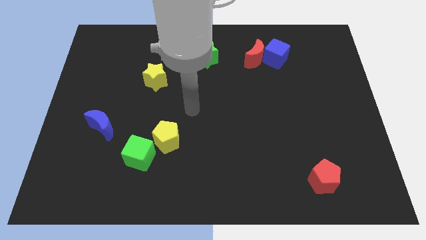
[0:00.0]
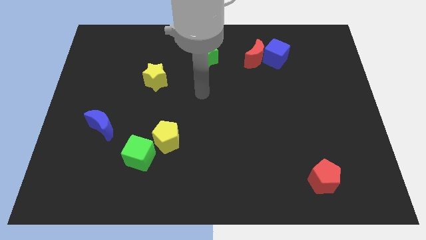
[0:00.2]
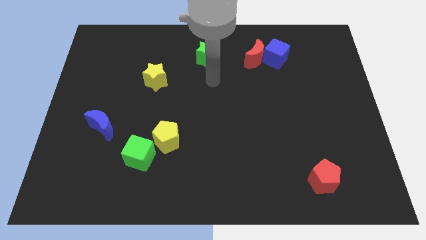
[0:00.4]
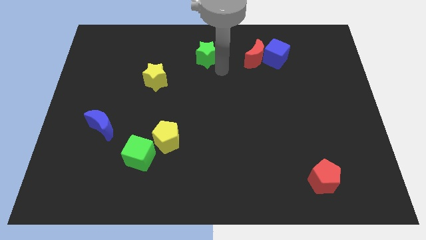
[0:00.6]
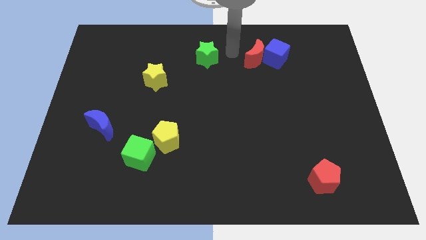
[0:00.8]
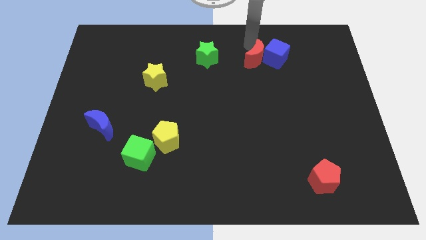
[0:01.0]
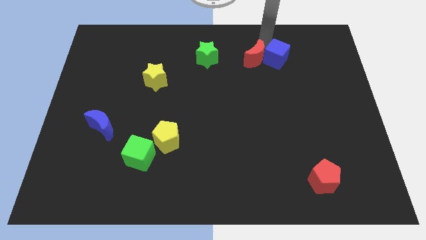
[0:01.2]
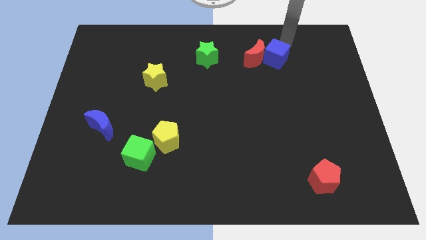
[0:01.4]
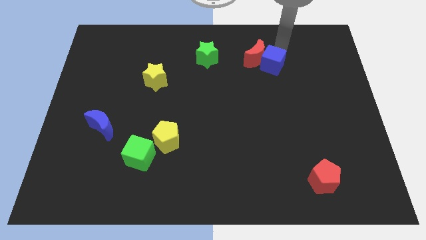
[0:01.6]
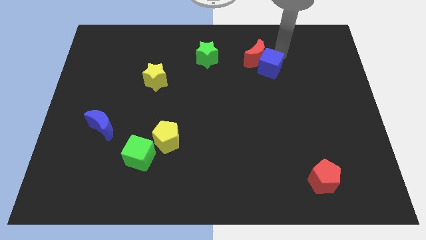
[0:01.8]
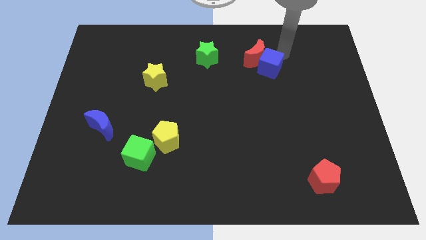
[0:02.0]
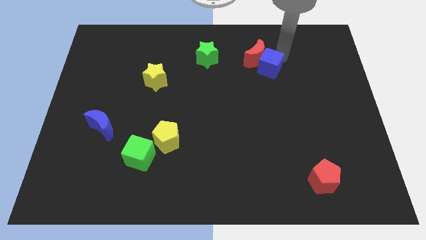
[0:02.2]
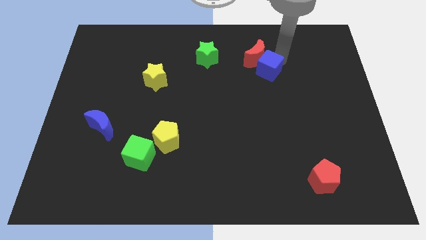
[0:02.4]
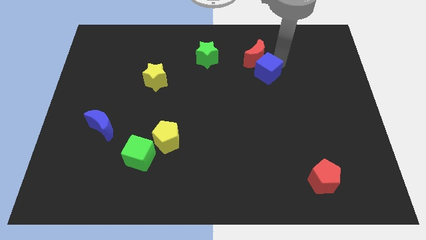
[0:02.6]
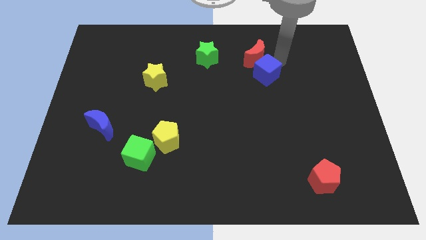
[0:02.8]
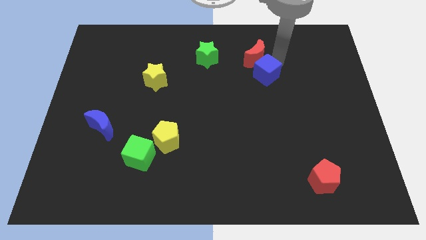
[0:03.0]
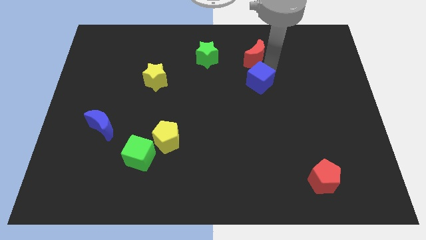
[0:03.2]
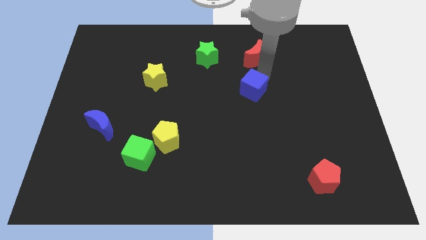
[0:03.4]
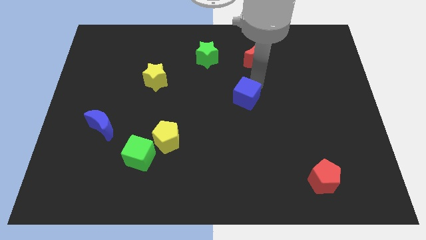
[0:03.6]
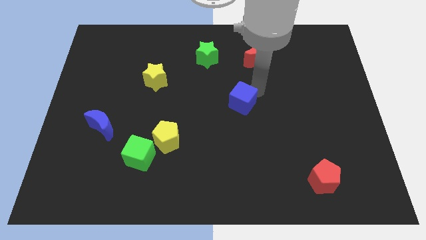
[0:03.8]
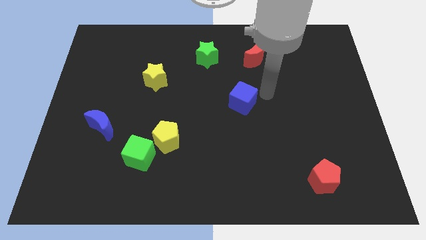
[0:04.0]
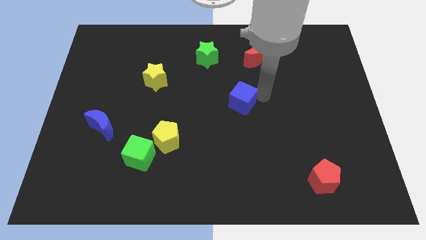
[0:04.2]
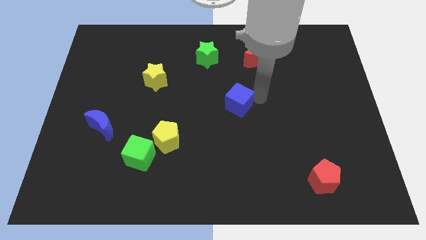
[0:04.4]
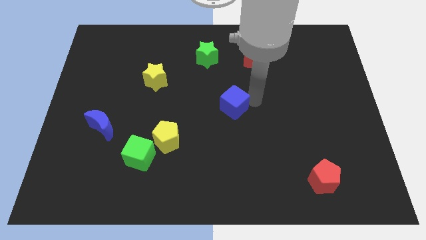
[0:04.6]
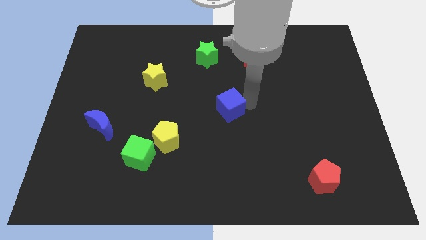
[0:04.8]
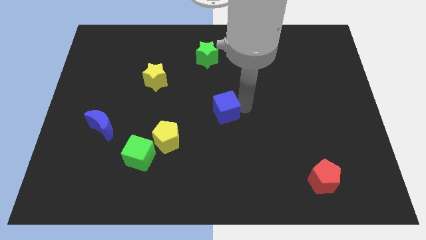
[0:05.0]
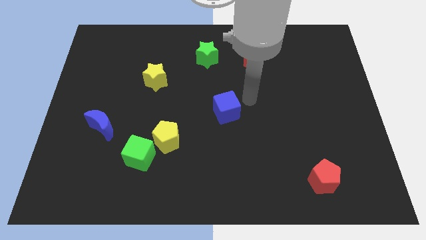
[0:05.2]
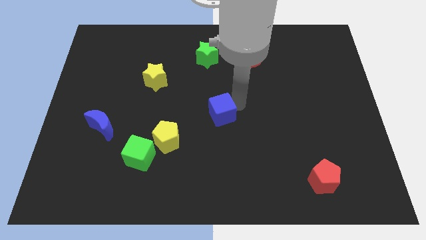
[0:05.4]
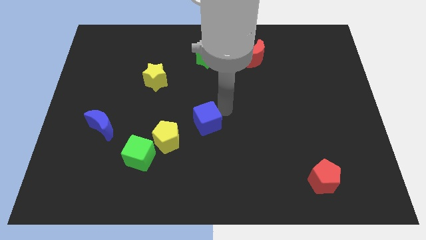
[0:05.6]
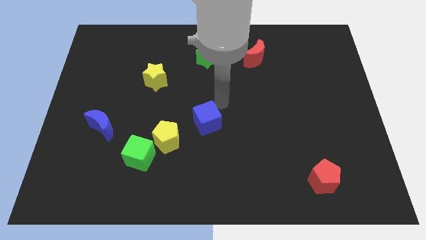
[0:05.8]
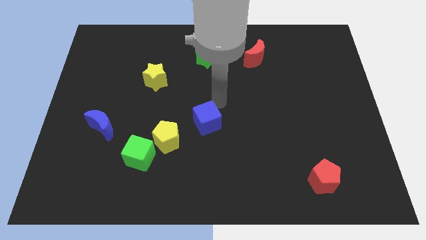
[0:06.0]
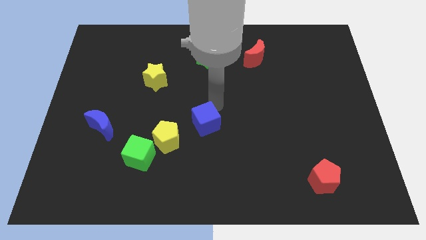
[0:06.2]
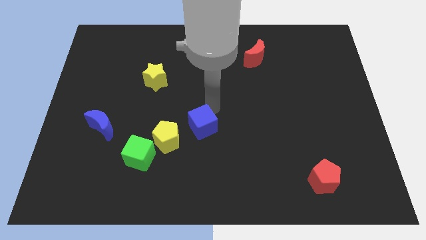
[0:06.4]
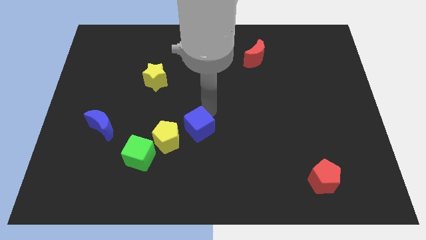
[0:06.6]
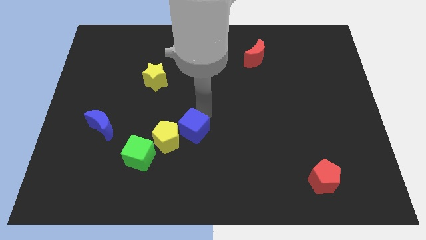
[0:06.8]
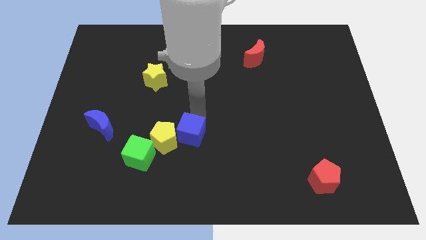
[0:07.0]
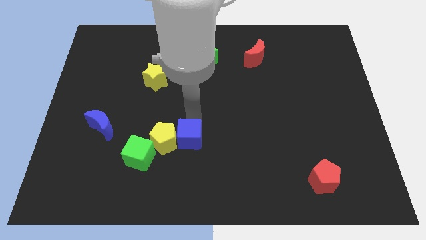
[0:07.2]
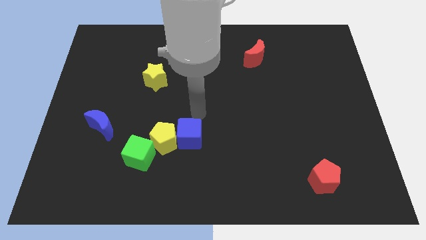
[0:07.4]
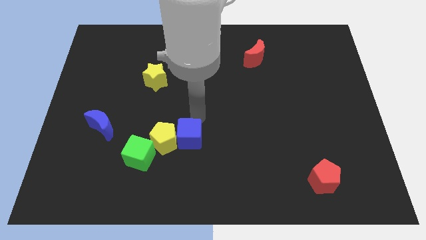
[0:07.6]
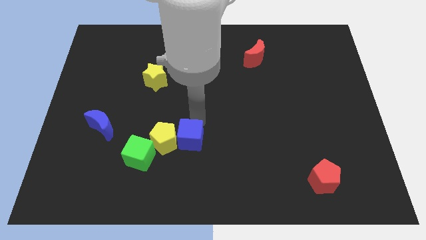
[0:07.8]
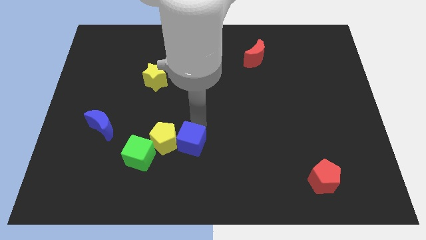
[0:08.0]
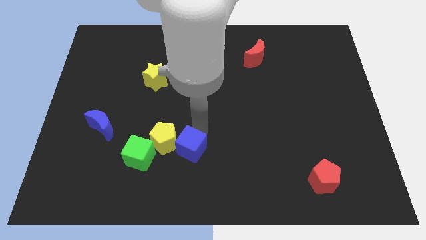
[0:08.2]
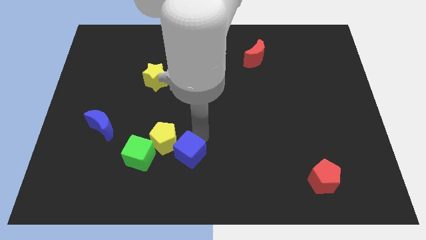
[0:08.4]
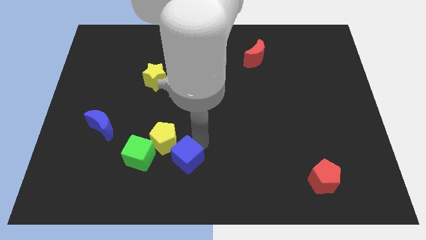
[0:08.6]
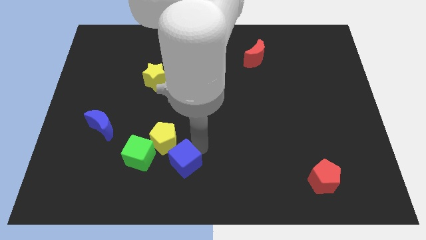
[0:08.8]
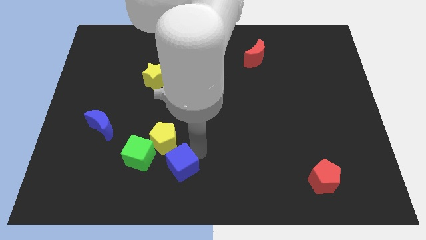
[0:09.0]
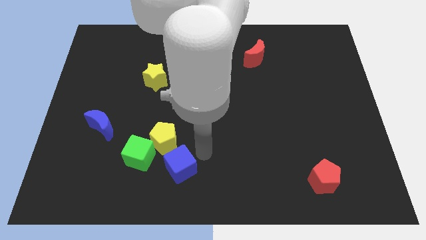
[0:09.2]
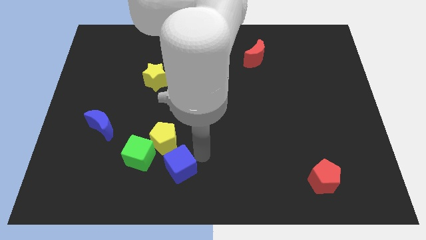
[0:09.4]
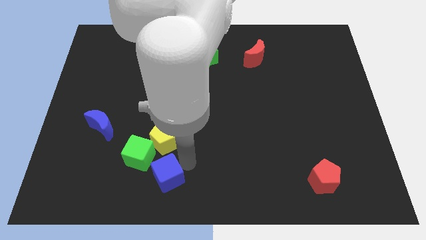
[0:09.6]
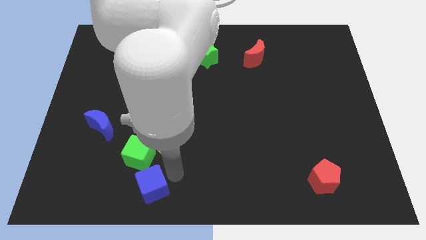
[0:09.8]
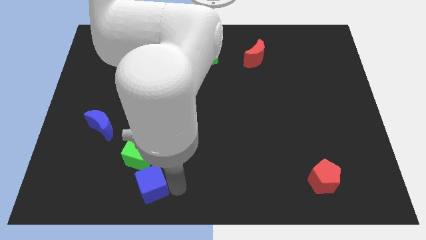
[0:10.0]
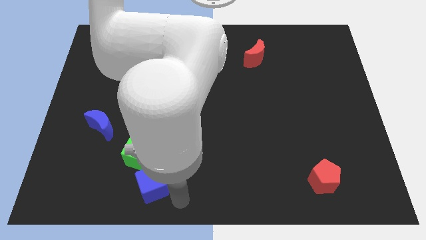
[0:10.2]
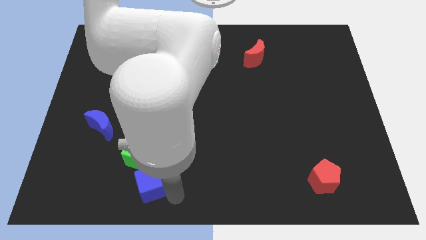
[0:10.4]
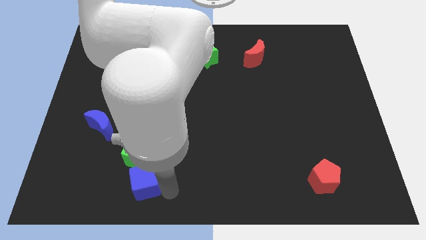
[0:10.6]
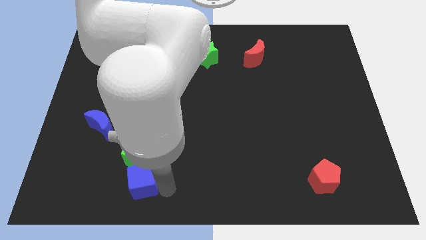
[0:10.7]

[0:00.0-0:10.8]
move the blue cube to the bottom left side of the yellow pentagon

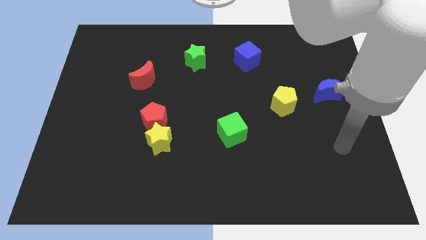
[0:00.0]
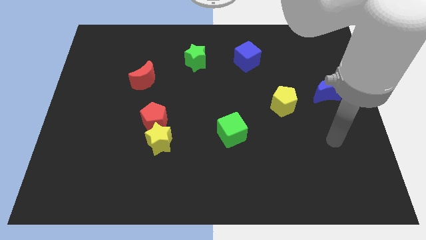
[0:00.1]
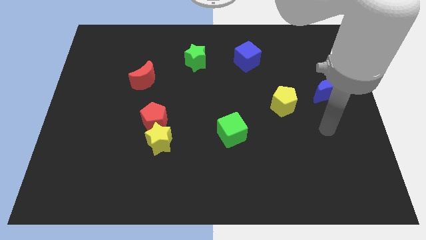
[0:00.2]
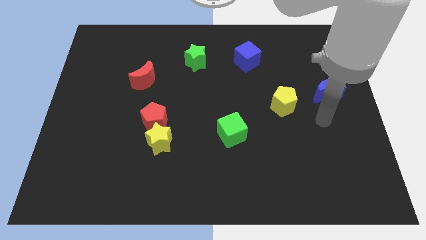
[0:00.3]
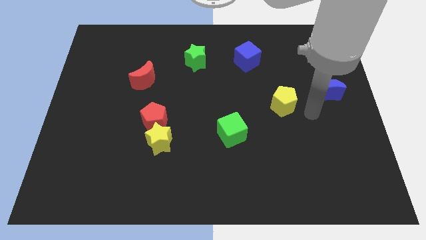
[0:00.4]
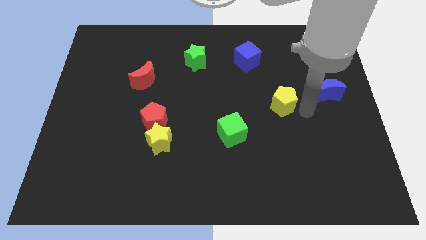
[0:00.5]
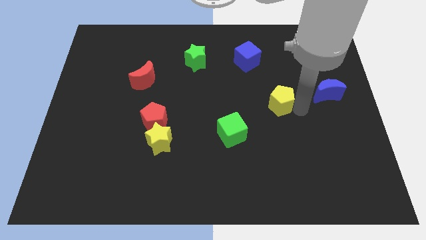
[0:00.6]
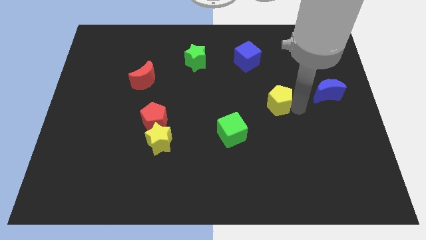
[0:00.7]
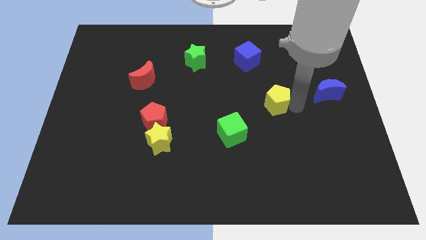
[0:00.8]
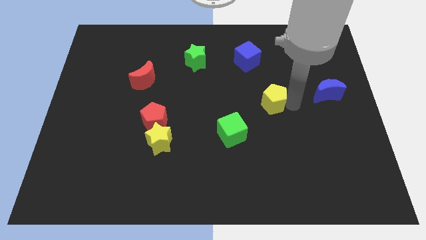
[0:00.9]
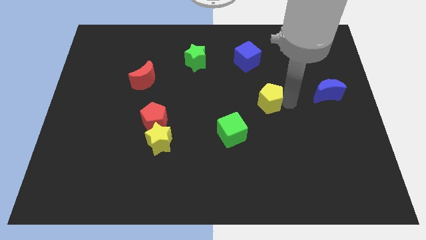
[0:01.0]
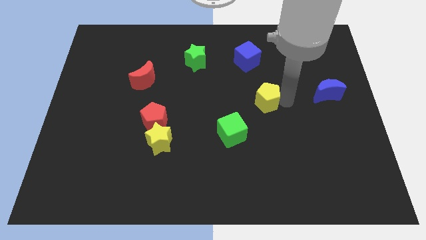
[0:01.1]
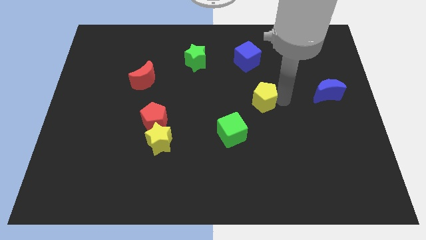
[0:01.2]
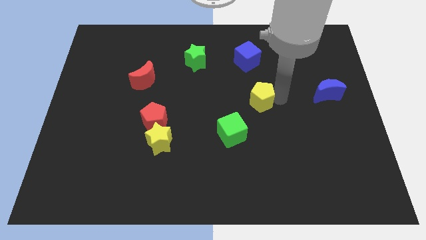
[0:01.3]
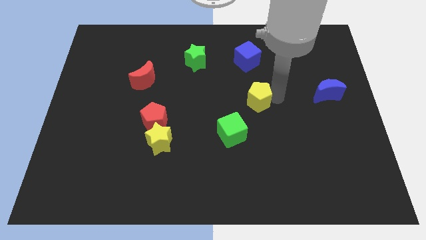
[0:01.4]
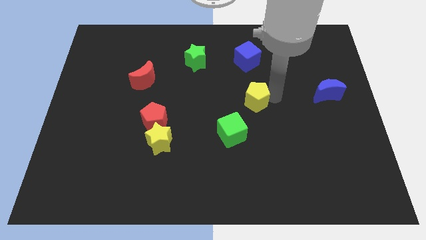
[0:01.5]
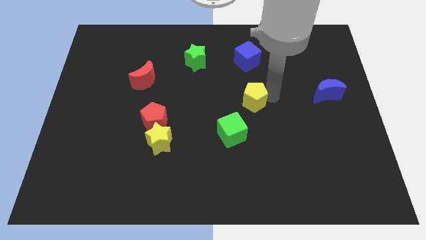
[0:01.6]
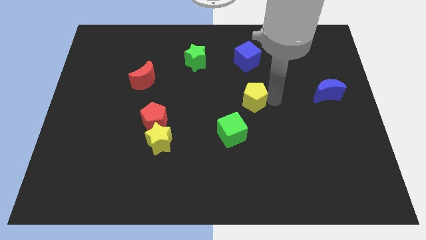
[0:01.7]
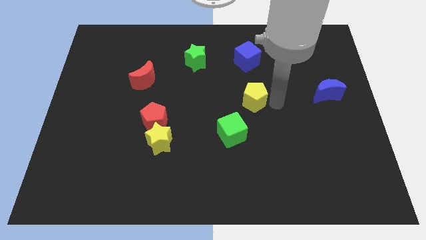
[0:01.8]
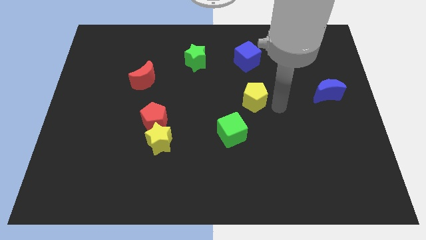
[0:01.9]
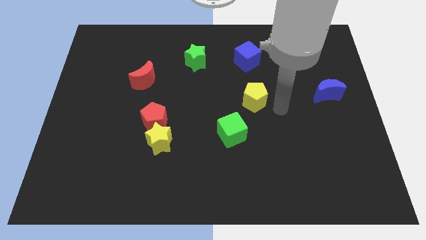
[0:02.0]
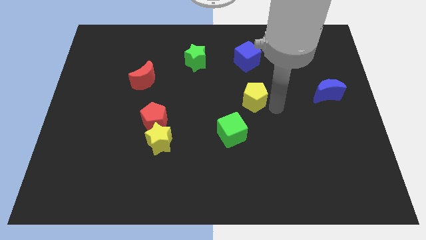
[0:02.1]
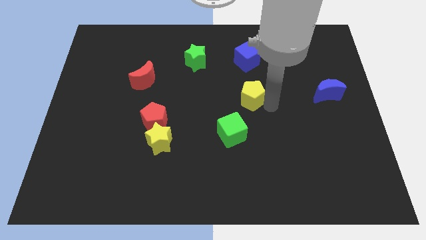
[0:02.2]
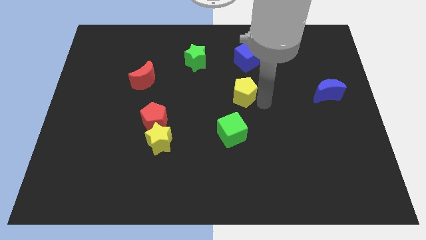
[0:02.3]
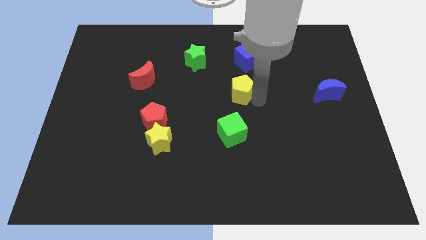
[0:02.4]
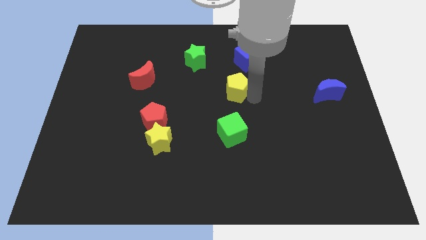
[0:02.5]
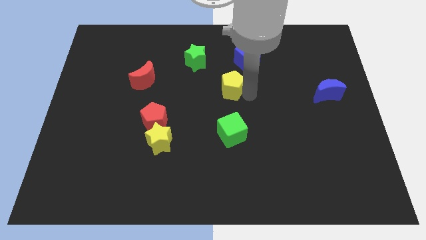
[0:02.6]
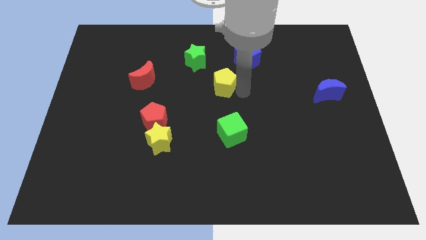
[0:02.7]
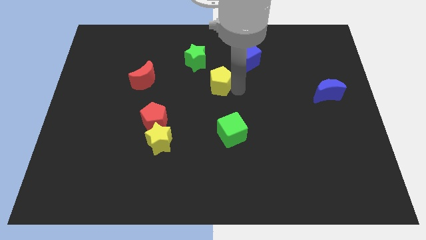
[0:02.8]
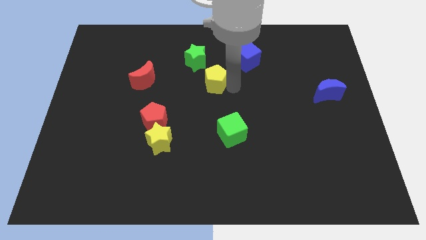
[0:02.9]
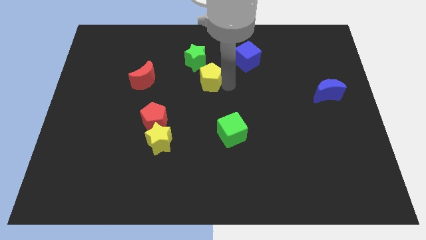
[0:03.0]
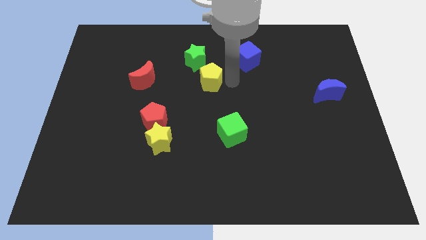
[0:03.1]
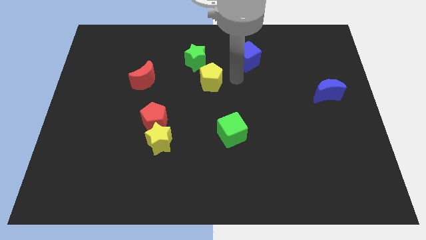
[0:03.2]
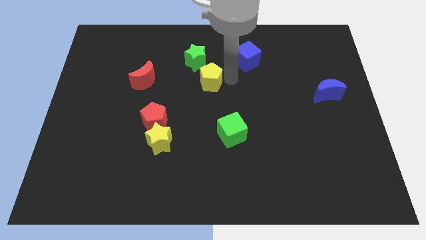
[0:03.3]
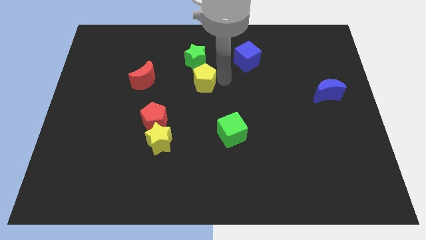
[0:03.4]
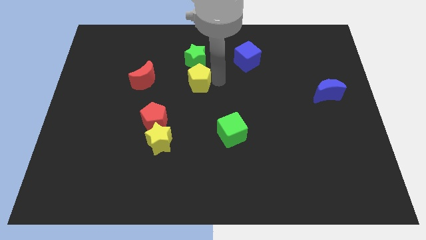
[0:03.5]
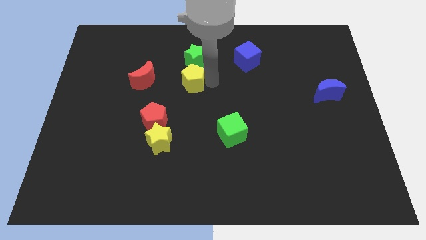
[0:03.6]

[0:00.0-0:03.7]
put the yellow pentagon to the bottom left of the green star
